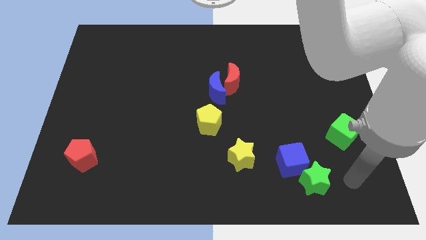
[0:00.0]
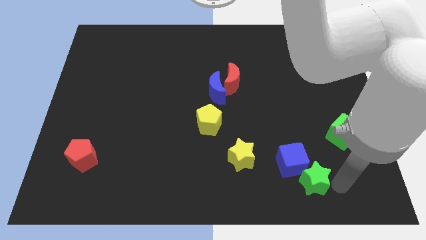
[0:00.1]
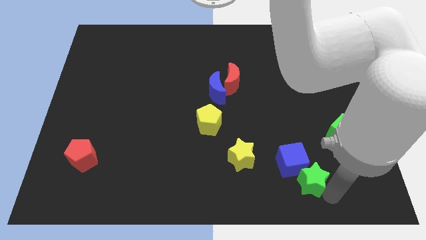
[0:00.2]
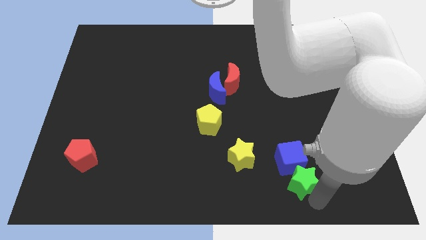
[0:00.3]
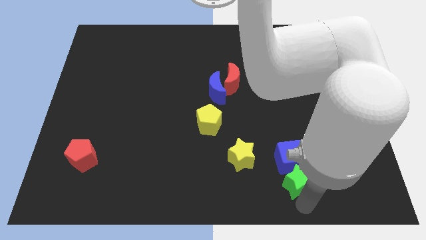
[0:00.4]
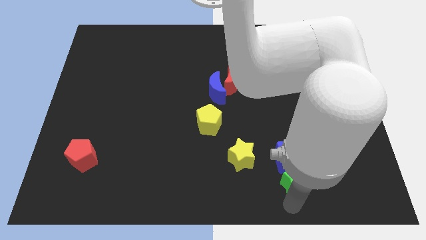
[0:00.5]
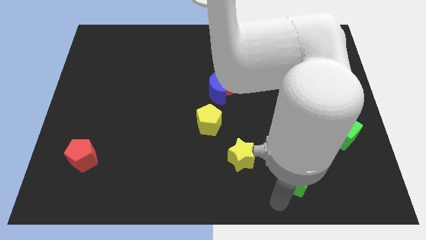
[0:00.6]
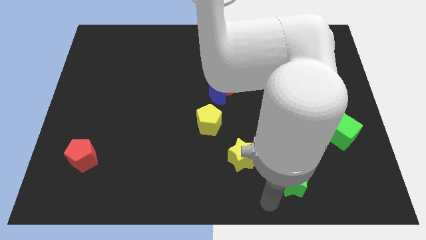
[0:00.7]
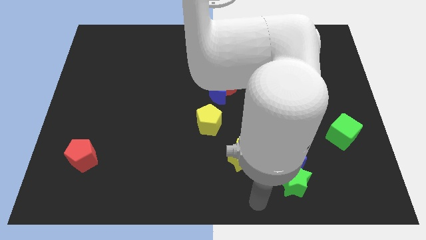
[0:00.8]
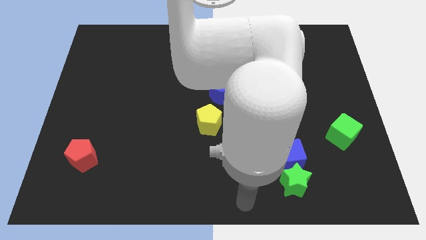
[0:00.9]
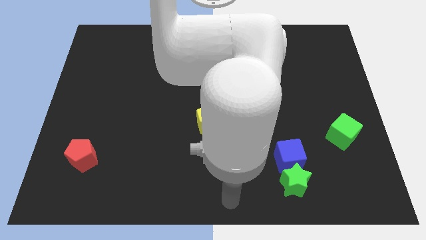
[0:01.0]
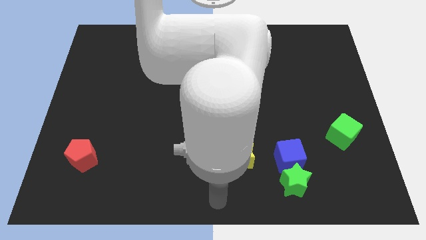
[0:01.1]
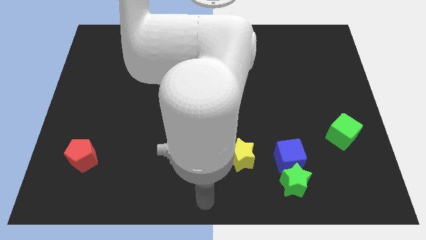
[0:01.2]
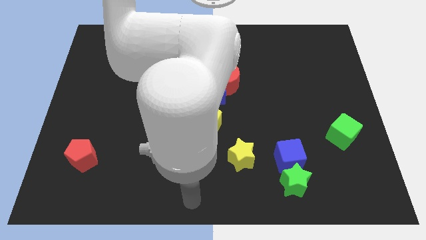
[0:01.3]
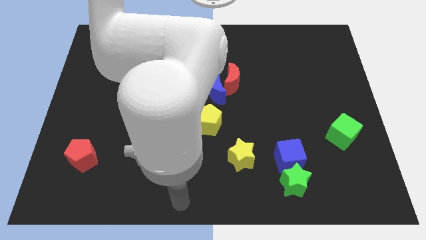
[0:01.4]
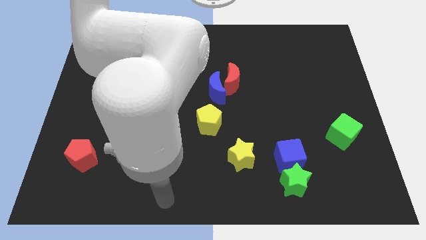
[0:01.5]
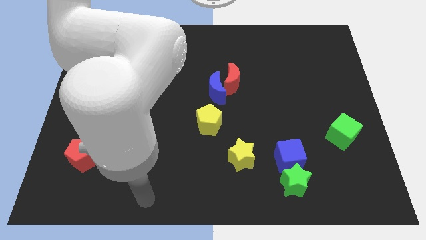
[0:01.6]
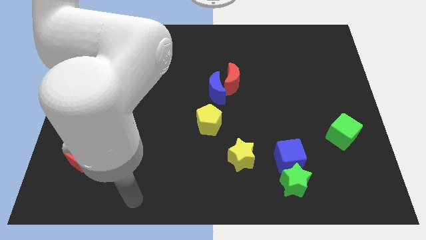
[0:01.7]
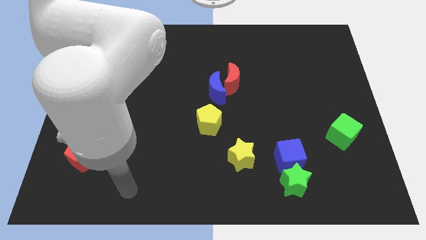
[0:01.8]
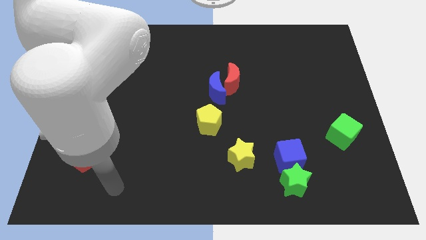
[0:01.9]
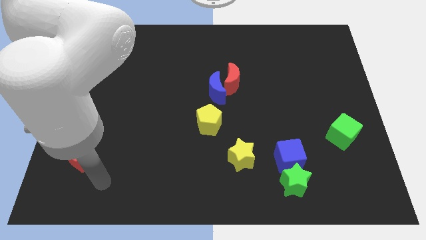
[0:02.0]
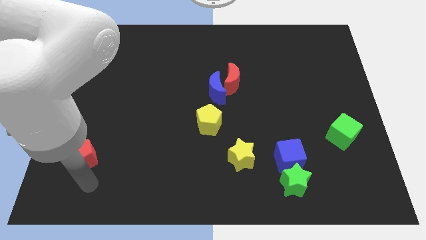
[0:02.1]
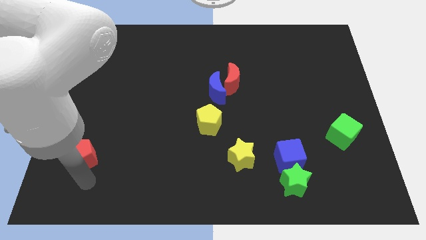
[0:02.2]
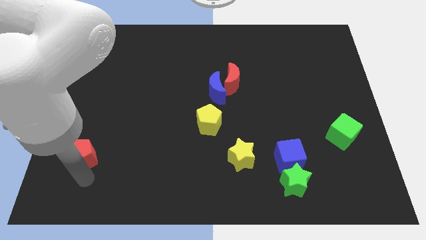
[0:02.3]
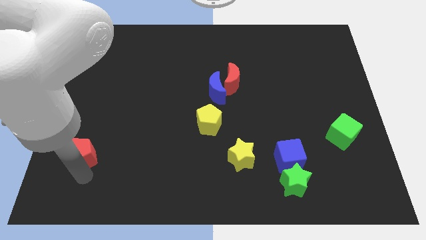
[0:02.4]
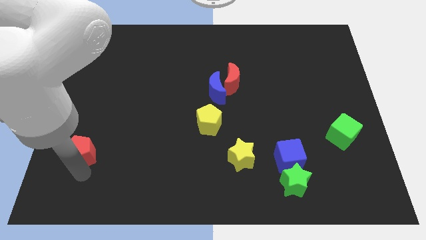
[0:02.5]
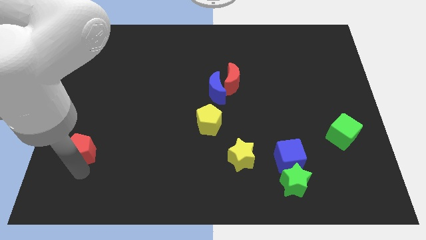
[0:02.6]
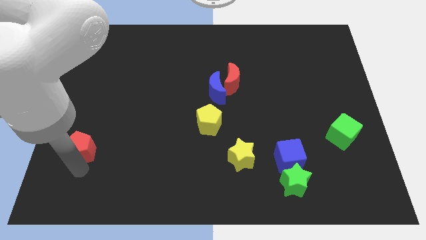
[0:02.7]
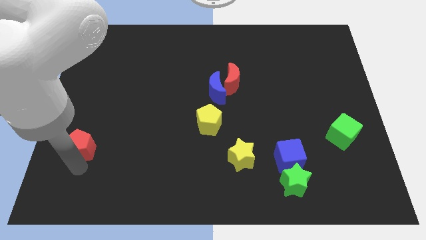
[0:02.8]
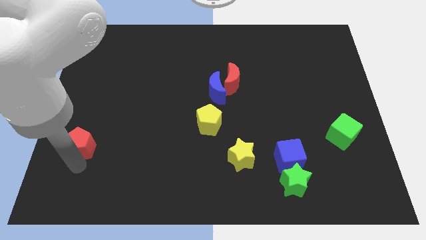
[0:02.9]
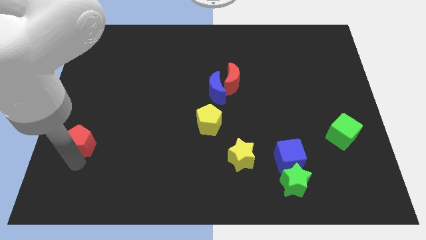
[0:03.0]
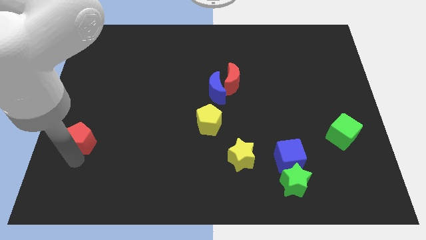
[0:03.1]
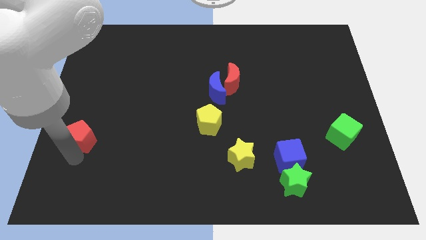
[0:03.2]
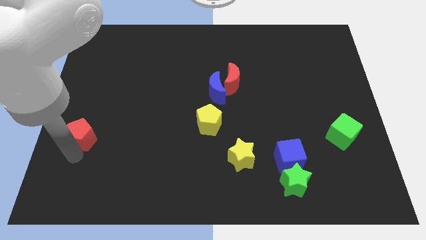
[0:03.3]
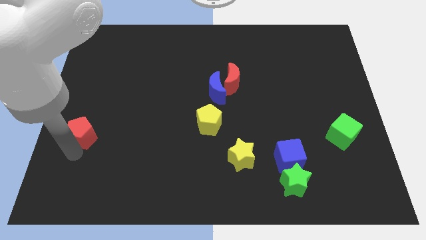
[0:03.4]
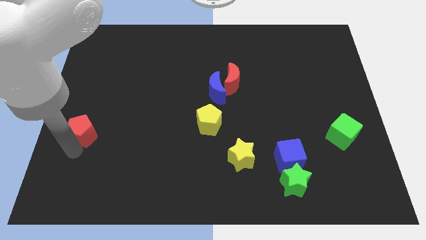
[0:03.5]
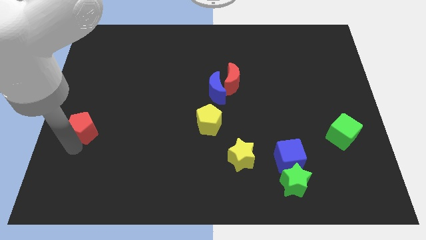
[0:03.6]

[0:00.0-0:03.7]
slightly push the red pentagon upwards

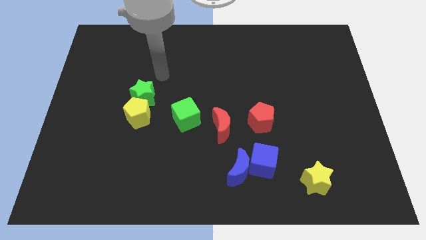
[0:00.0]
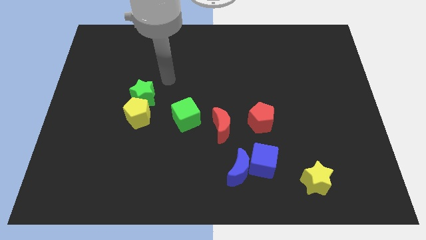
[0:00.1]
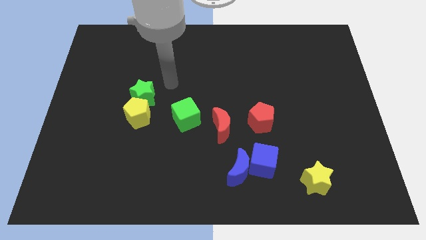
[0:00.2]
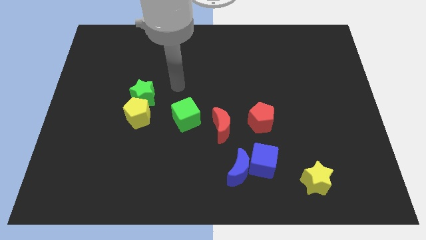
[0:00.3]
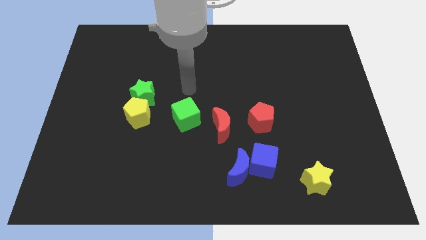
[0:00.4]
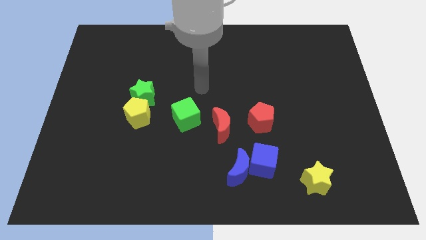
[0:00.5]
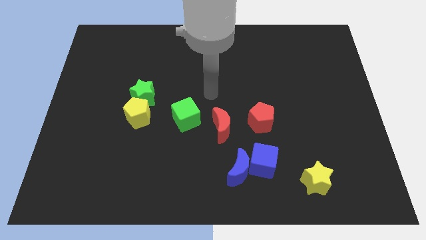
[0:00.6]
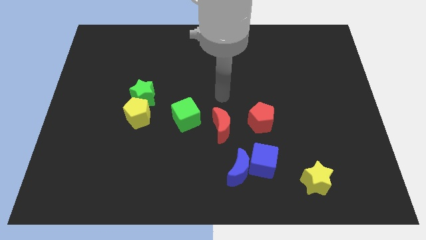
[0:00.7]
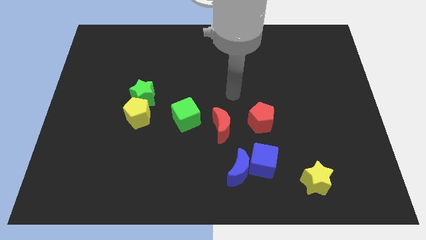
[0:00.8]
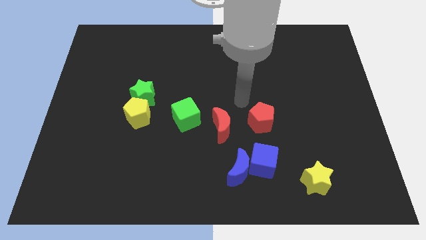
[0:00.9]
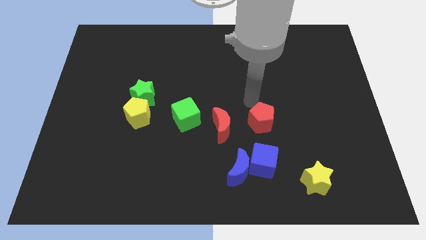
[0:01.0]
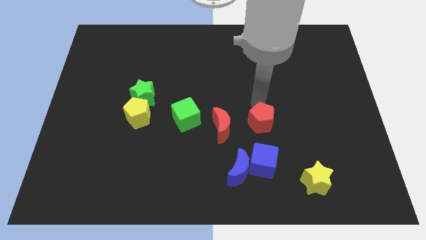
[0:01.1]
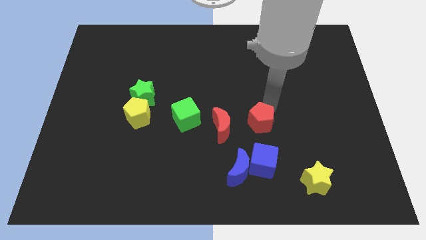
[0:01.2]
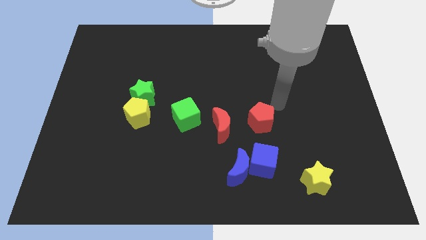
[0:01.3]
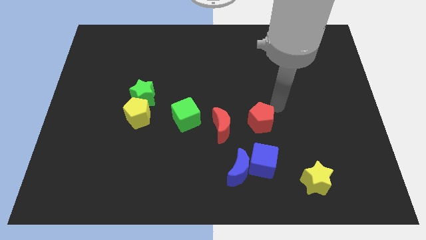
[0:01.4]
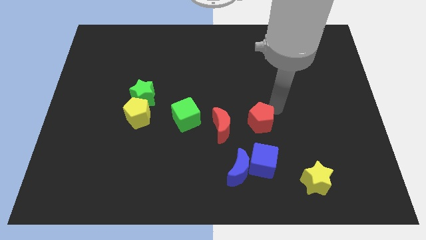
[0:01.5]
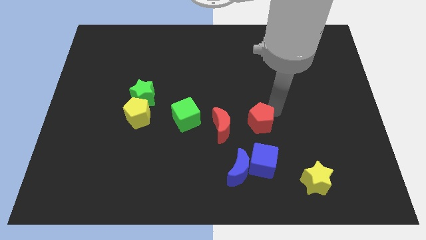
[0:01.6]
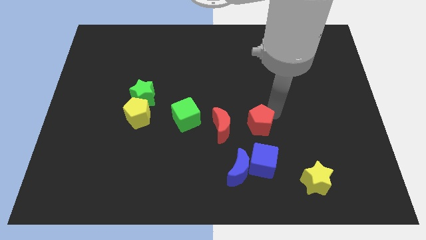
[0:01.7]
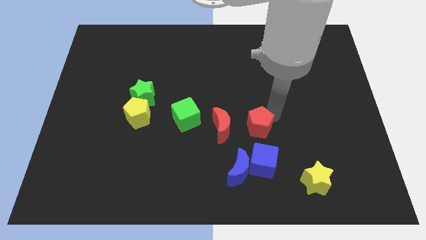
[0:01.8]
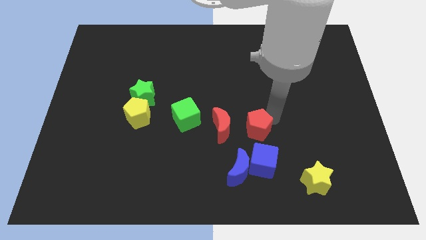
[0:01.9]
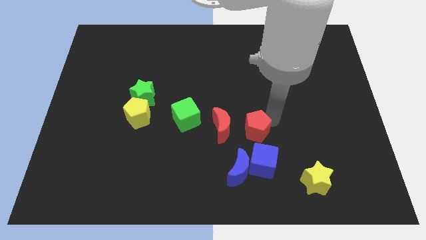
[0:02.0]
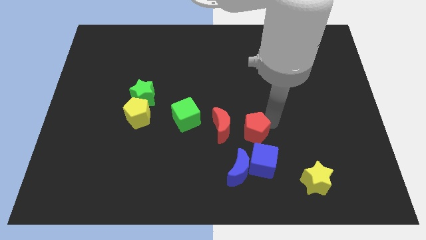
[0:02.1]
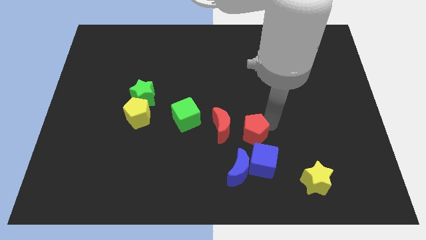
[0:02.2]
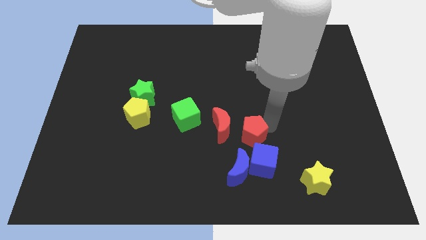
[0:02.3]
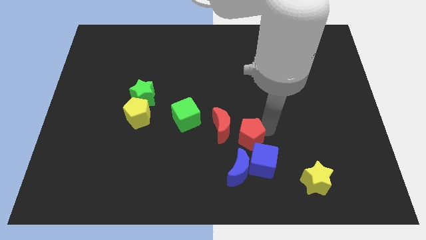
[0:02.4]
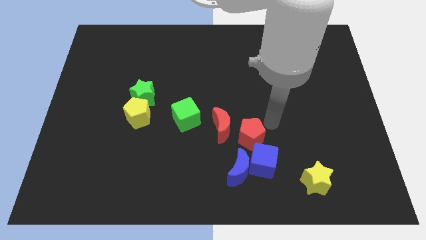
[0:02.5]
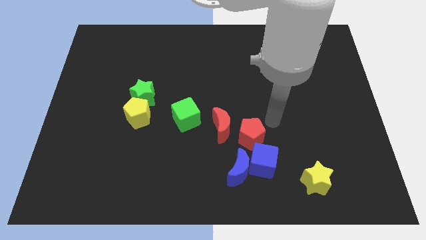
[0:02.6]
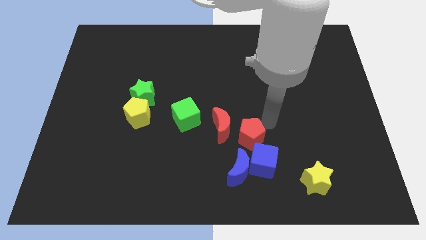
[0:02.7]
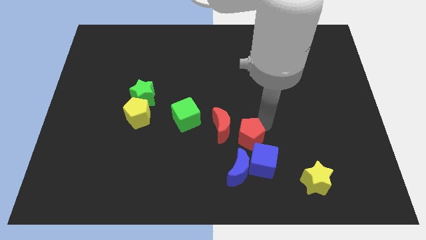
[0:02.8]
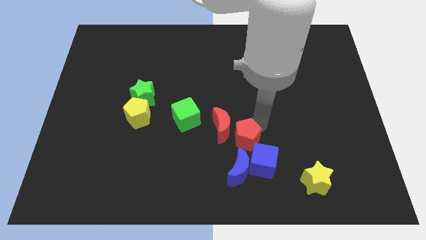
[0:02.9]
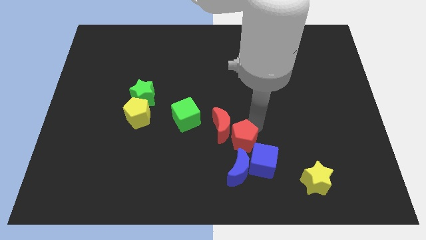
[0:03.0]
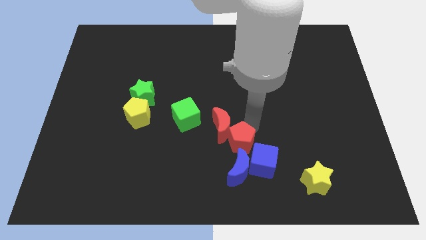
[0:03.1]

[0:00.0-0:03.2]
slide the red pentagon somewhat diagonally downwards and left

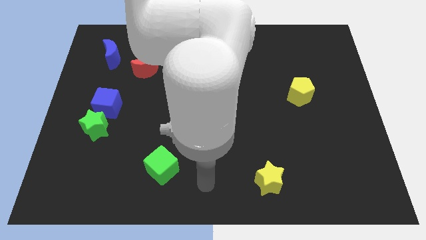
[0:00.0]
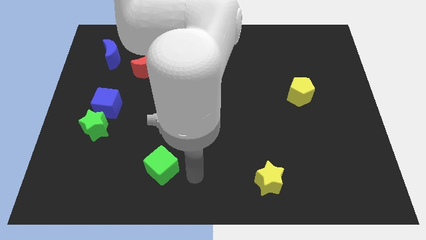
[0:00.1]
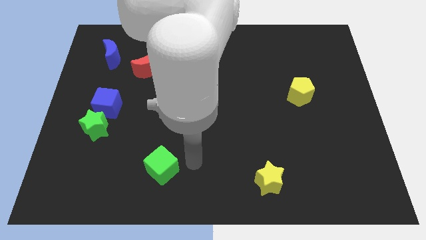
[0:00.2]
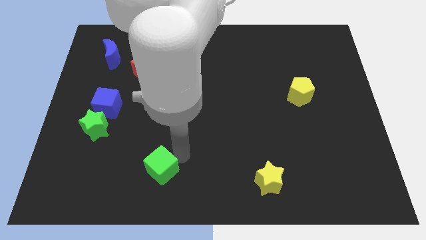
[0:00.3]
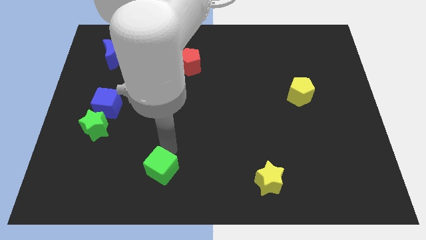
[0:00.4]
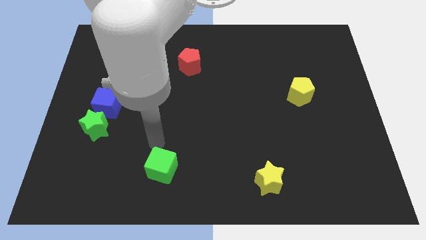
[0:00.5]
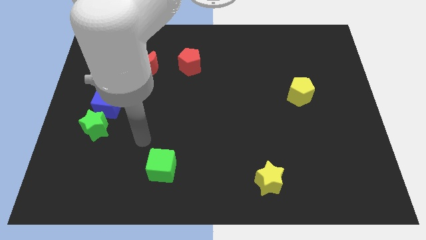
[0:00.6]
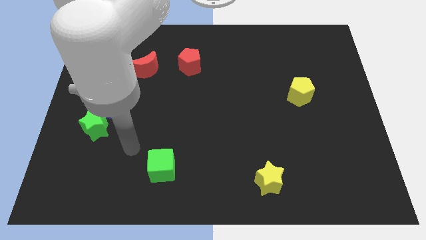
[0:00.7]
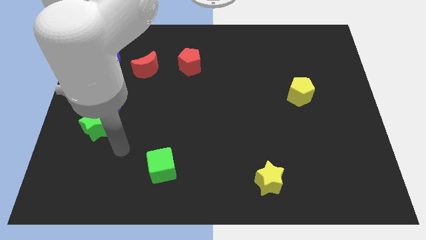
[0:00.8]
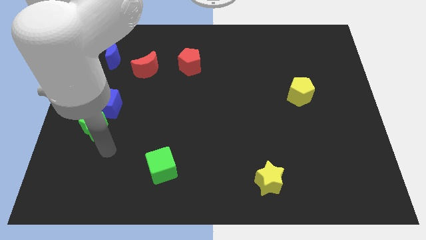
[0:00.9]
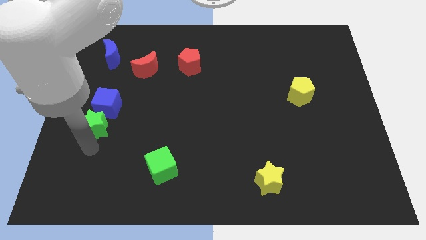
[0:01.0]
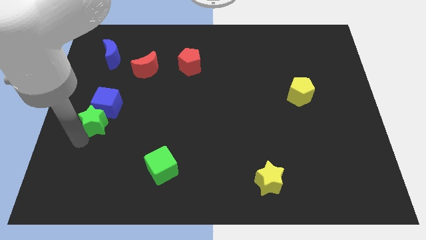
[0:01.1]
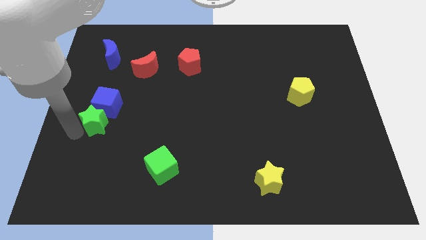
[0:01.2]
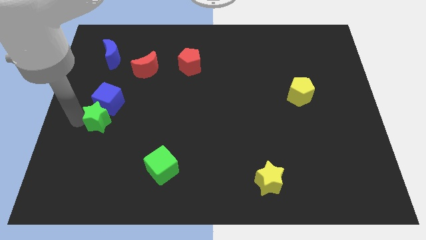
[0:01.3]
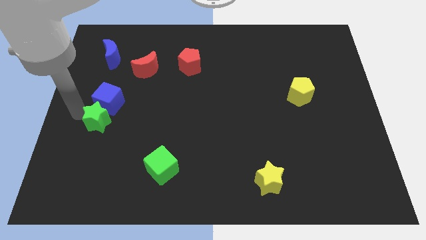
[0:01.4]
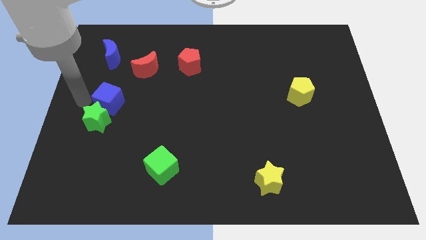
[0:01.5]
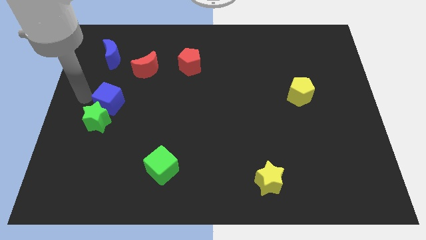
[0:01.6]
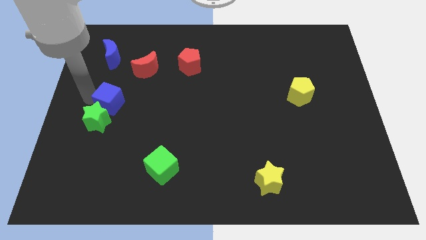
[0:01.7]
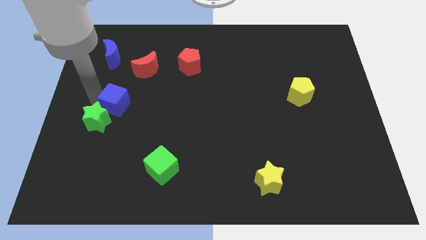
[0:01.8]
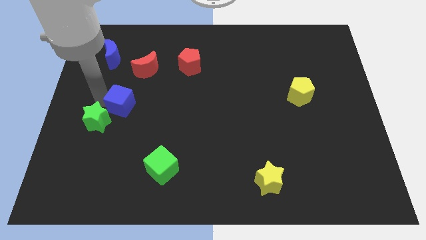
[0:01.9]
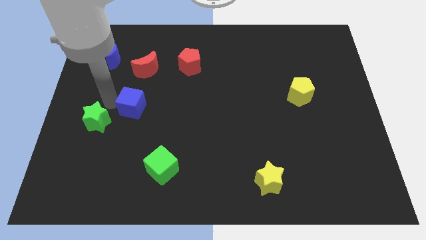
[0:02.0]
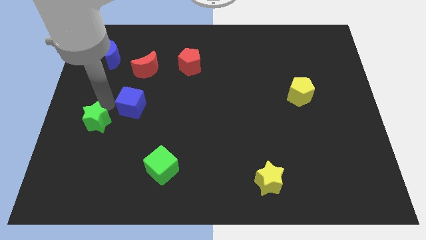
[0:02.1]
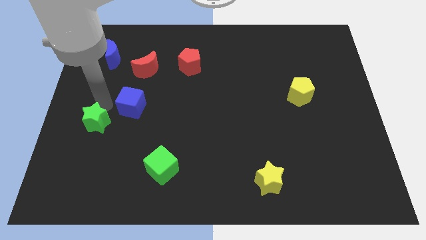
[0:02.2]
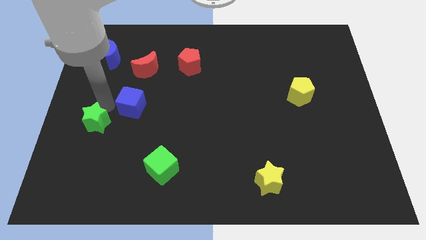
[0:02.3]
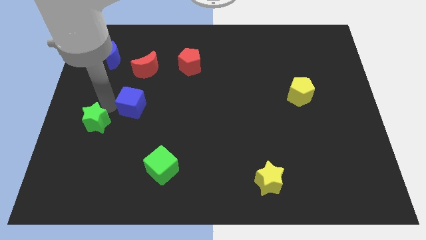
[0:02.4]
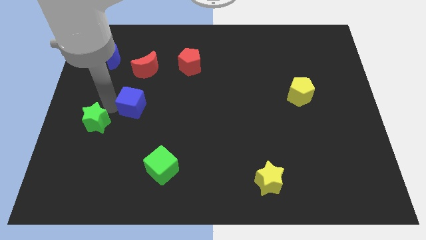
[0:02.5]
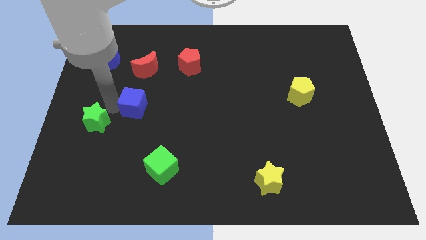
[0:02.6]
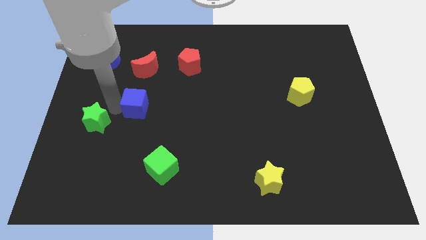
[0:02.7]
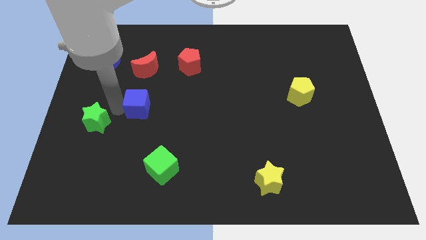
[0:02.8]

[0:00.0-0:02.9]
slightly slide the blue cube right
